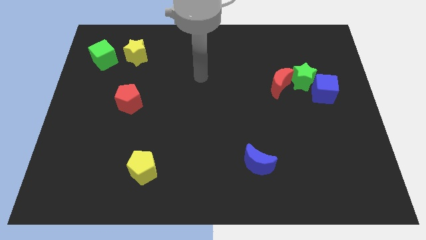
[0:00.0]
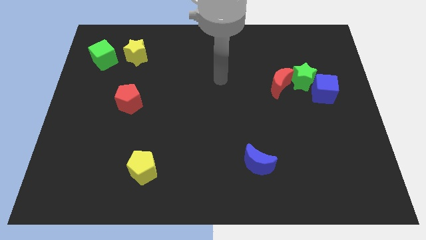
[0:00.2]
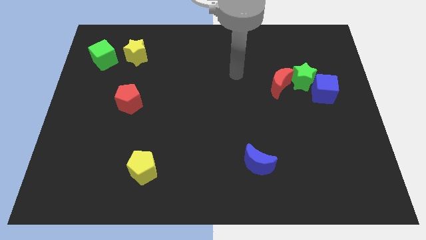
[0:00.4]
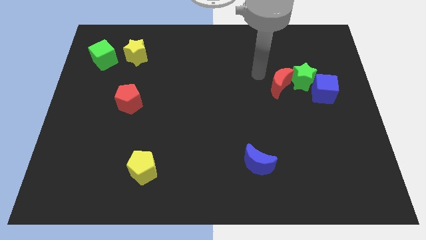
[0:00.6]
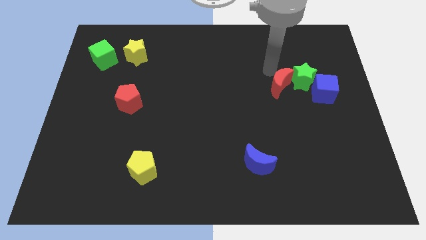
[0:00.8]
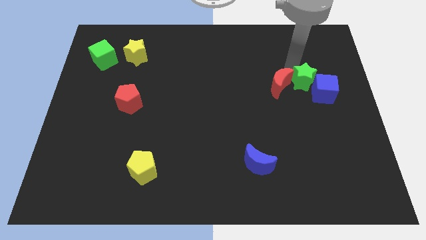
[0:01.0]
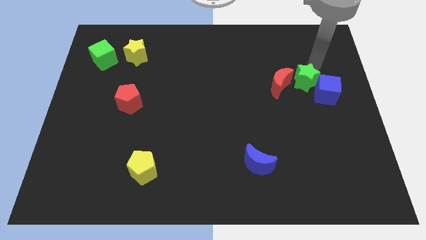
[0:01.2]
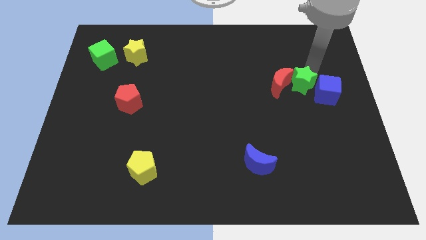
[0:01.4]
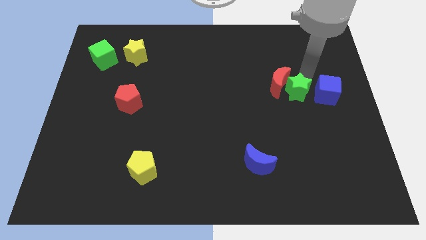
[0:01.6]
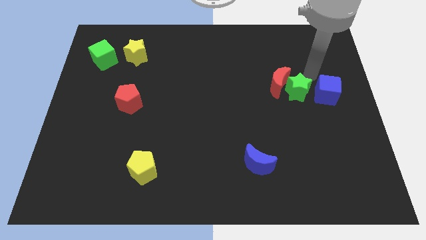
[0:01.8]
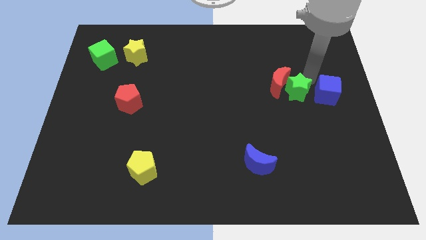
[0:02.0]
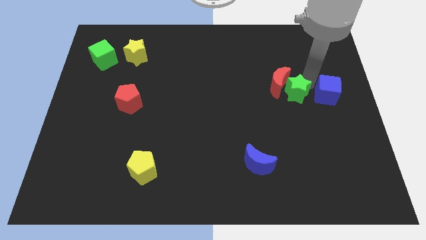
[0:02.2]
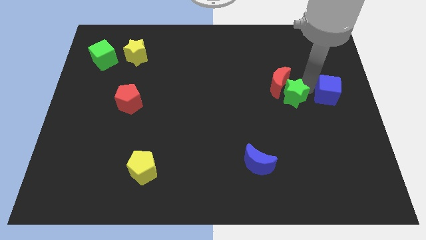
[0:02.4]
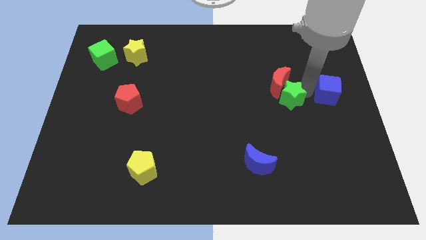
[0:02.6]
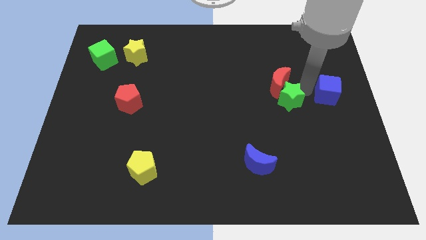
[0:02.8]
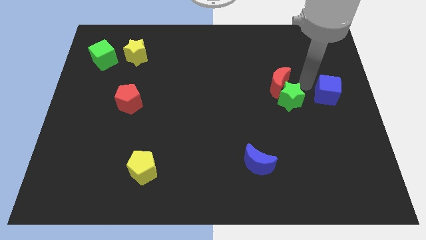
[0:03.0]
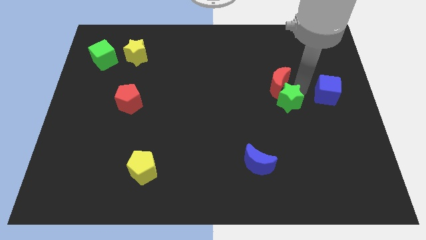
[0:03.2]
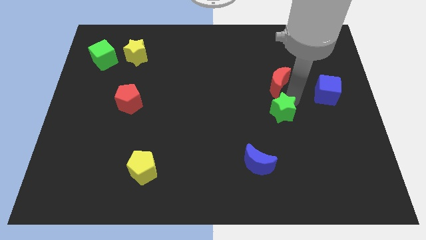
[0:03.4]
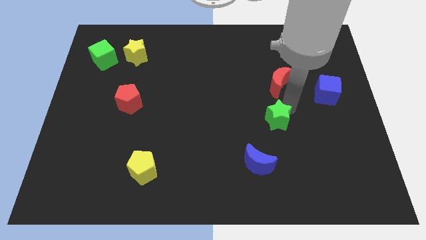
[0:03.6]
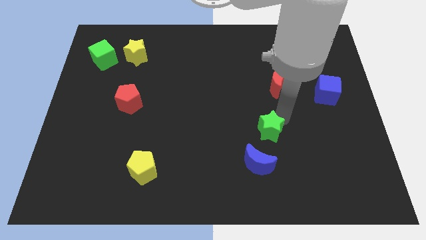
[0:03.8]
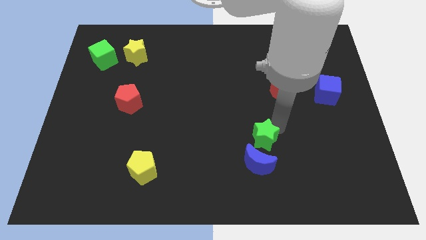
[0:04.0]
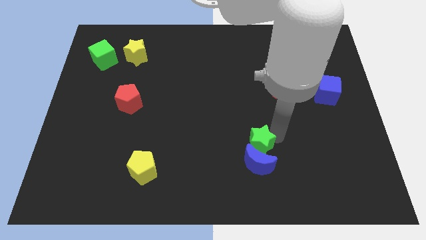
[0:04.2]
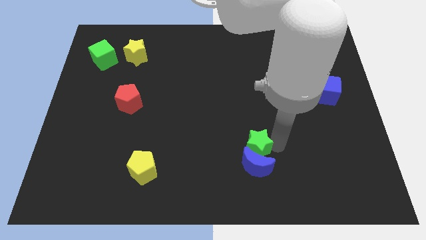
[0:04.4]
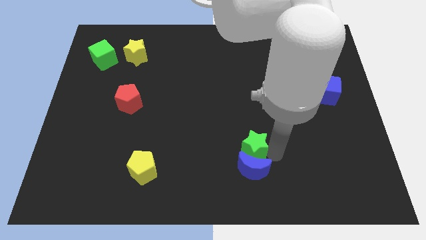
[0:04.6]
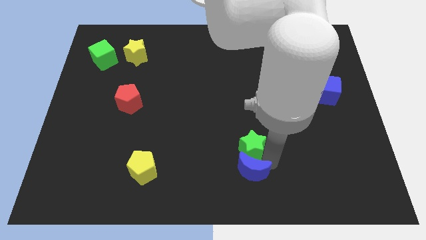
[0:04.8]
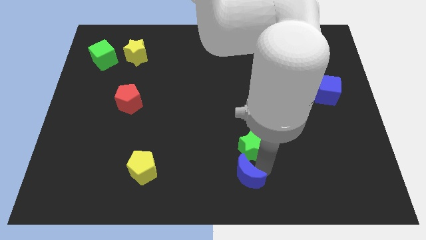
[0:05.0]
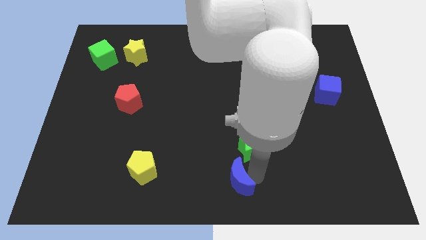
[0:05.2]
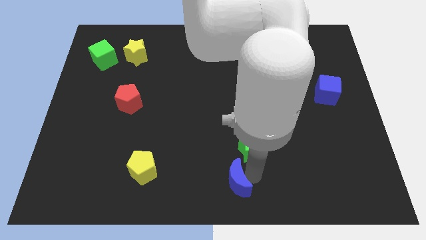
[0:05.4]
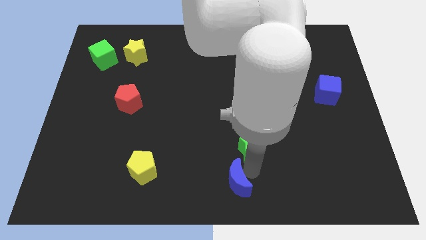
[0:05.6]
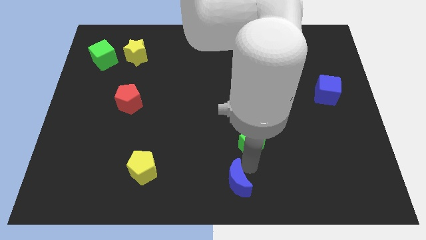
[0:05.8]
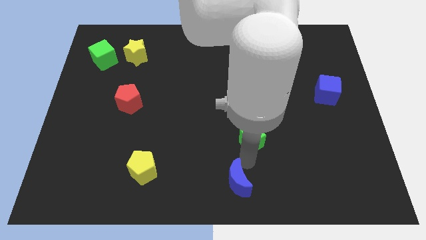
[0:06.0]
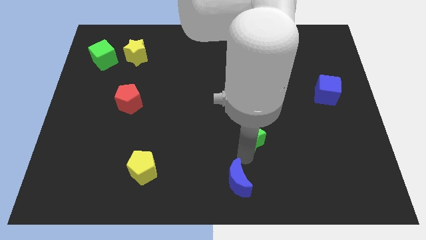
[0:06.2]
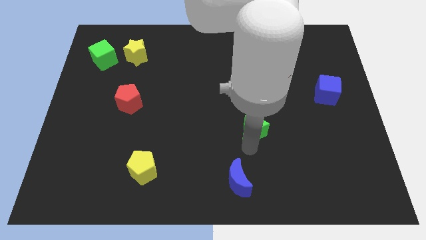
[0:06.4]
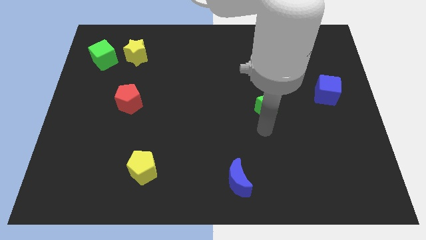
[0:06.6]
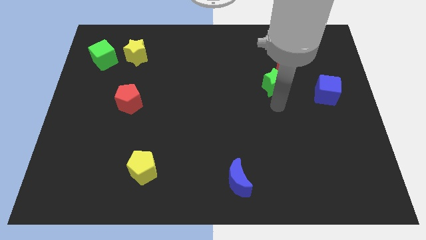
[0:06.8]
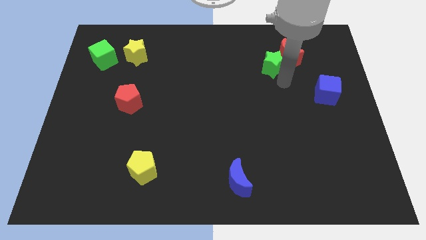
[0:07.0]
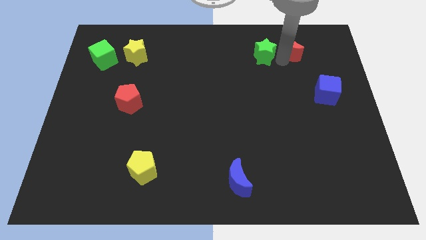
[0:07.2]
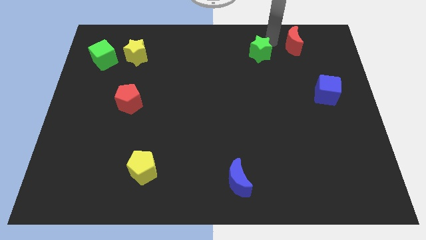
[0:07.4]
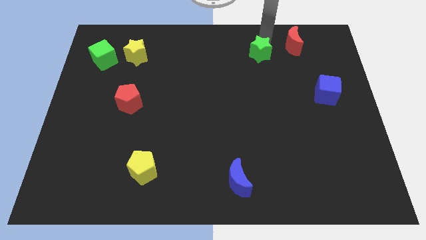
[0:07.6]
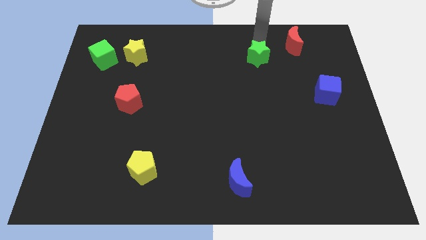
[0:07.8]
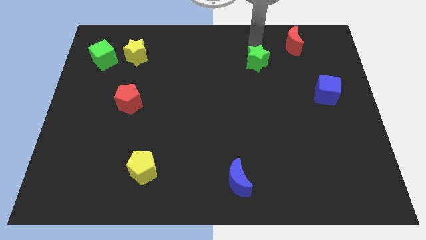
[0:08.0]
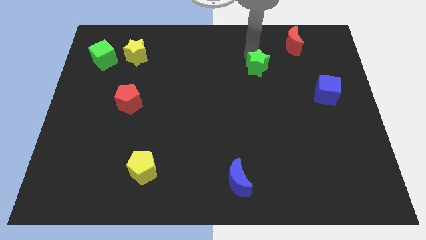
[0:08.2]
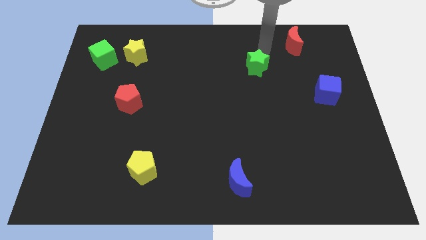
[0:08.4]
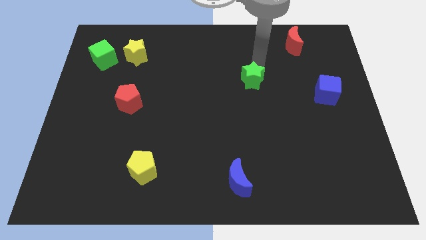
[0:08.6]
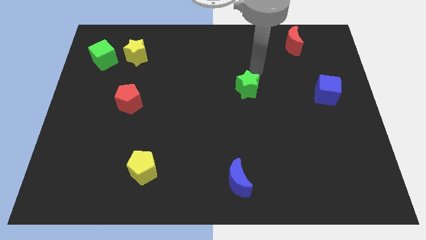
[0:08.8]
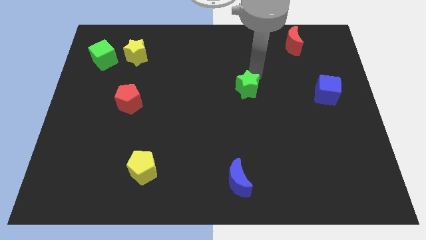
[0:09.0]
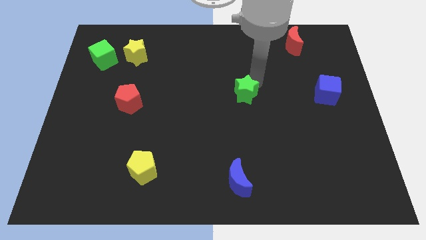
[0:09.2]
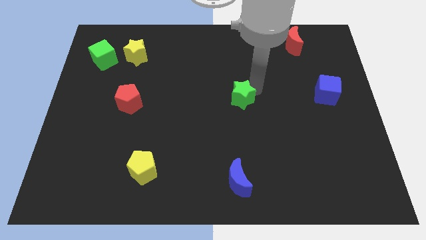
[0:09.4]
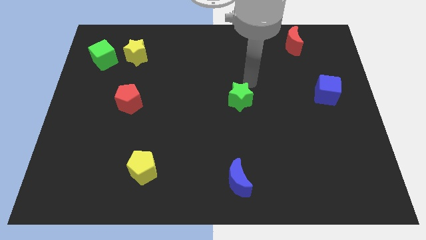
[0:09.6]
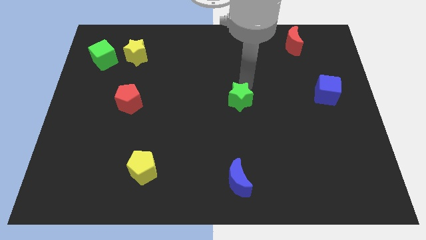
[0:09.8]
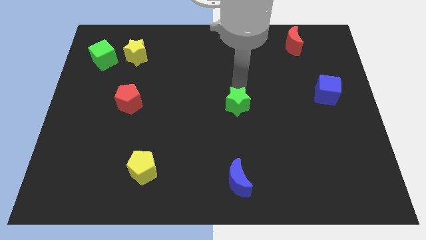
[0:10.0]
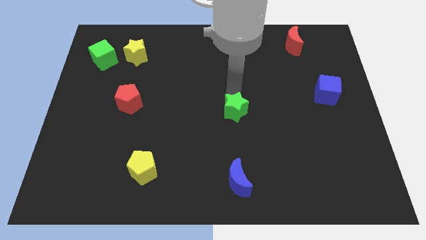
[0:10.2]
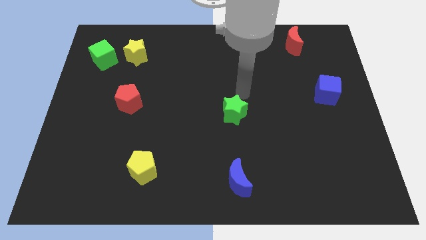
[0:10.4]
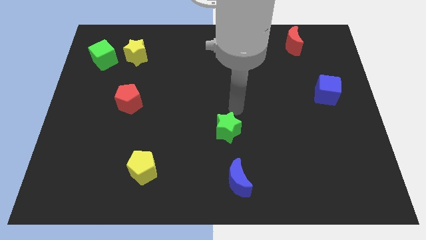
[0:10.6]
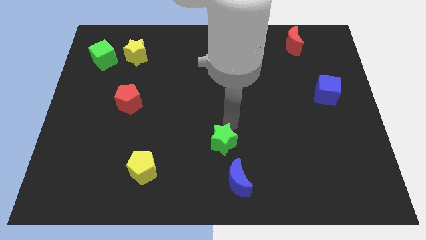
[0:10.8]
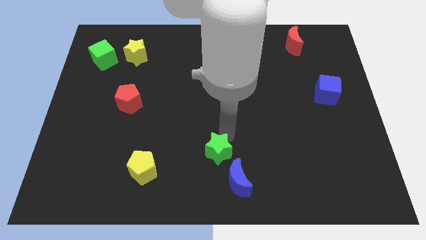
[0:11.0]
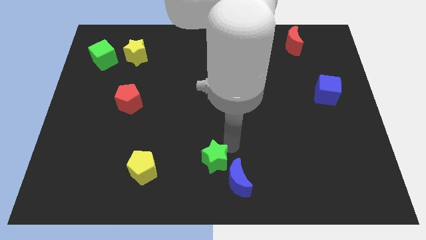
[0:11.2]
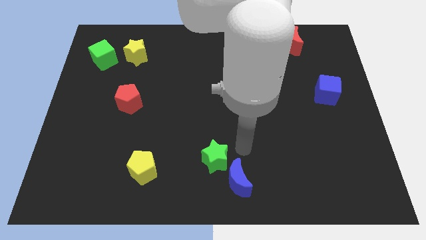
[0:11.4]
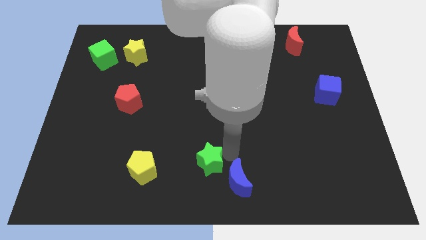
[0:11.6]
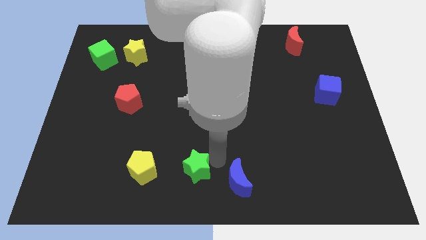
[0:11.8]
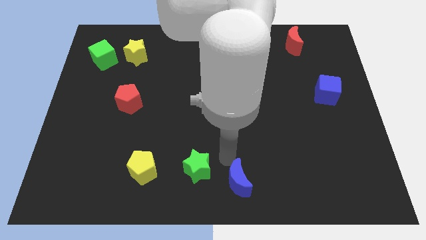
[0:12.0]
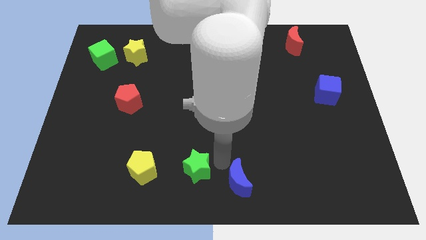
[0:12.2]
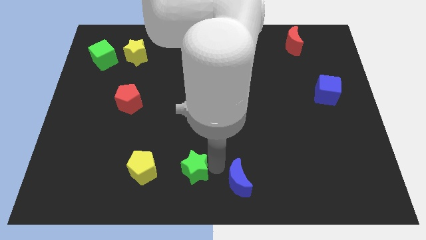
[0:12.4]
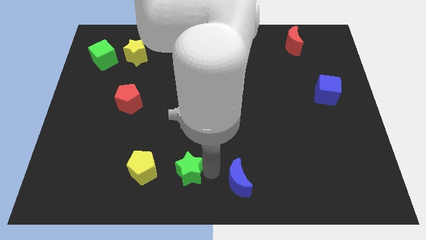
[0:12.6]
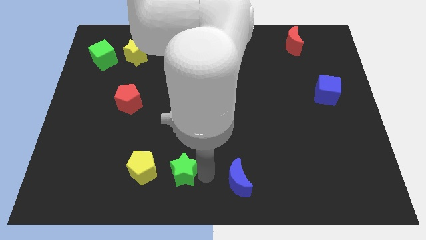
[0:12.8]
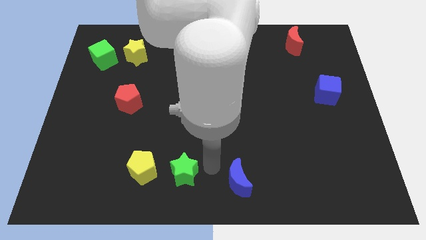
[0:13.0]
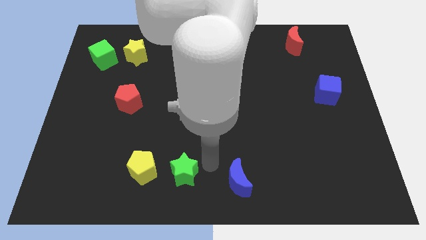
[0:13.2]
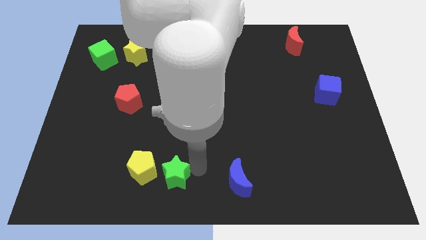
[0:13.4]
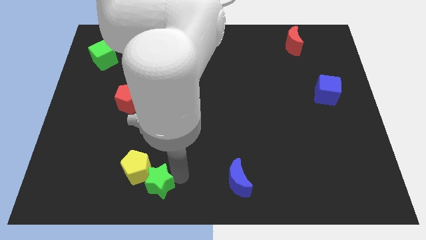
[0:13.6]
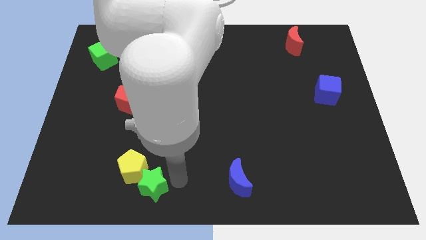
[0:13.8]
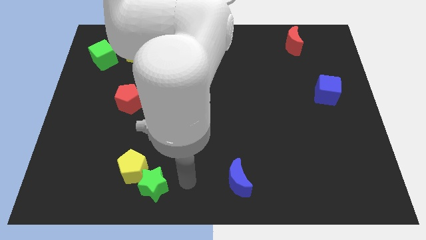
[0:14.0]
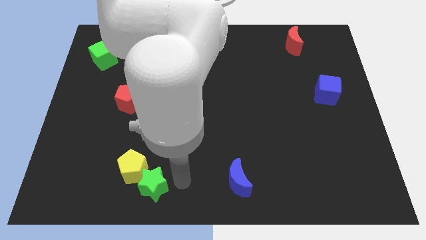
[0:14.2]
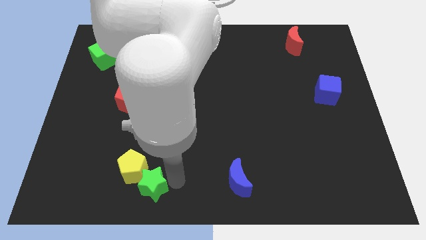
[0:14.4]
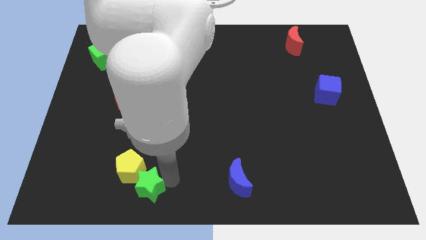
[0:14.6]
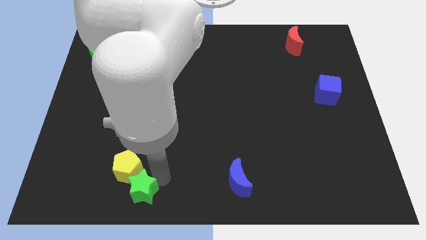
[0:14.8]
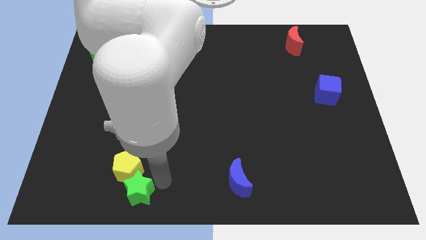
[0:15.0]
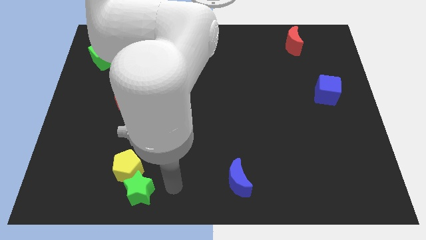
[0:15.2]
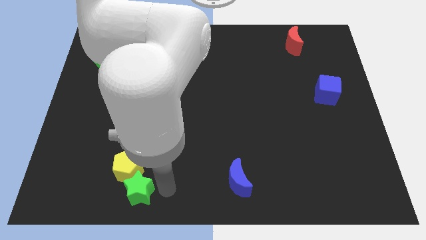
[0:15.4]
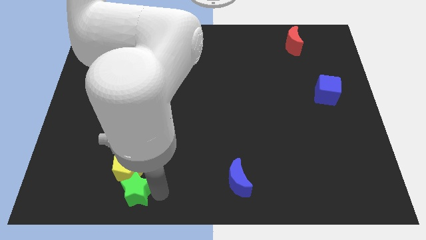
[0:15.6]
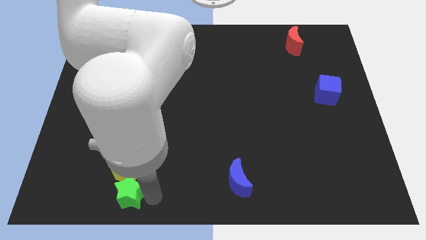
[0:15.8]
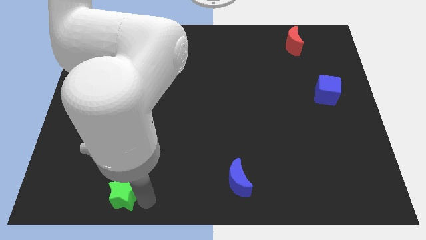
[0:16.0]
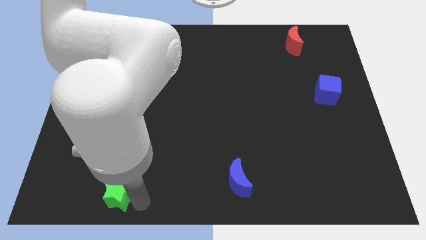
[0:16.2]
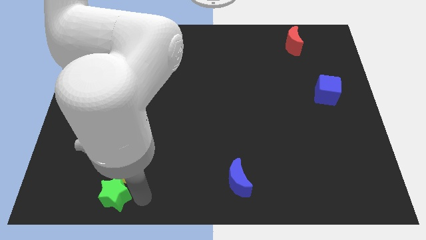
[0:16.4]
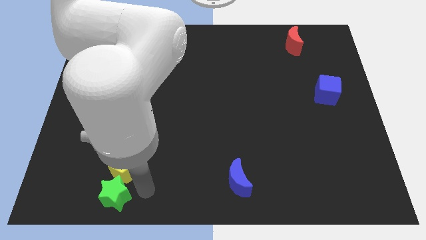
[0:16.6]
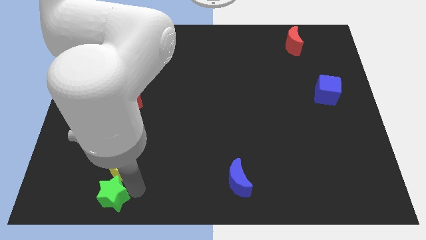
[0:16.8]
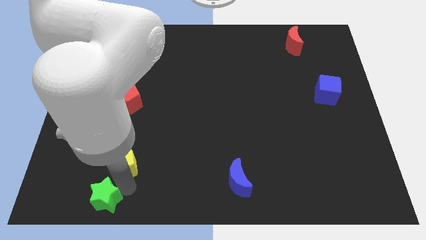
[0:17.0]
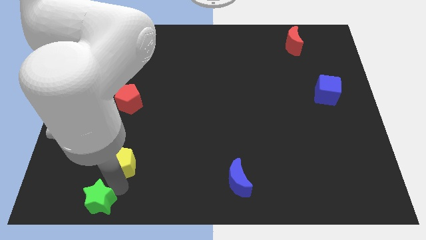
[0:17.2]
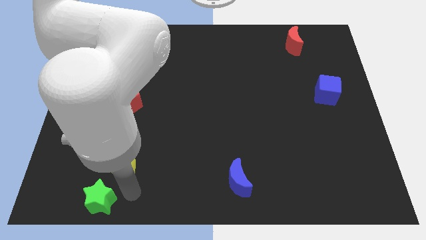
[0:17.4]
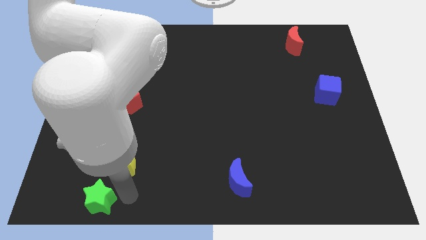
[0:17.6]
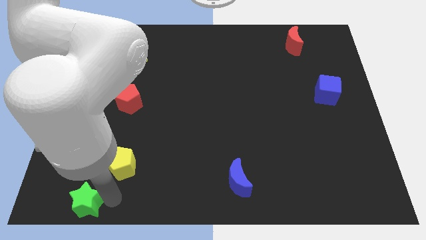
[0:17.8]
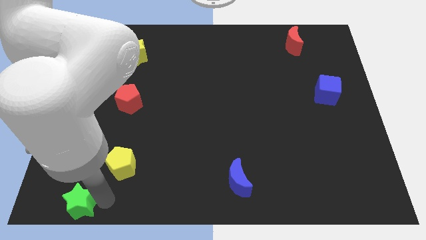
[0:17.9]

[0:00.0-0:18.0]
push the green star to the bottom left corner
